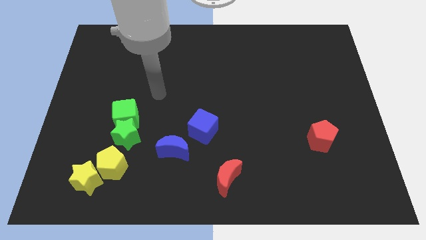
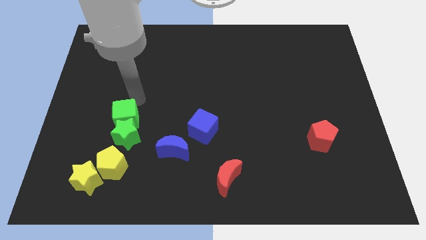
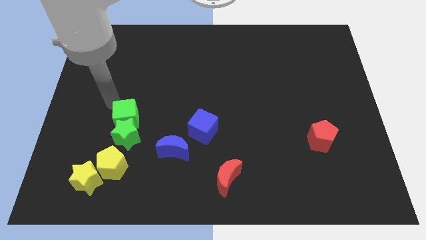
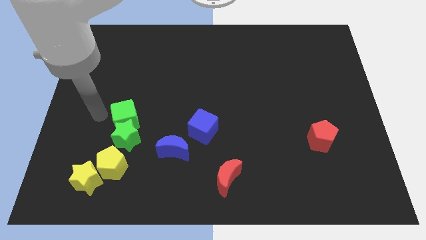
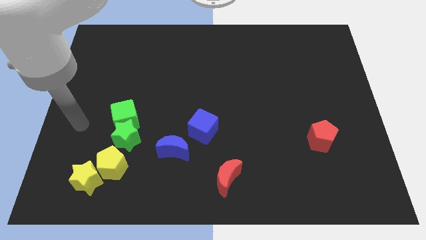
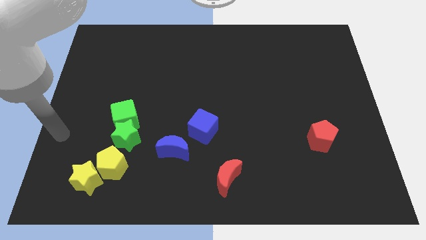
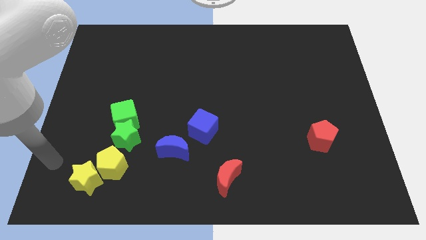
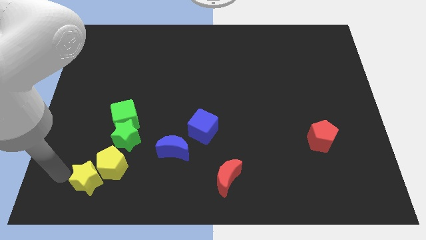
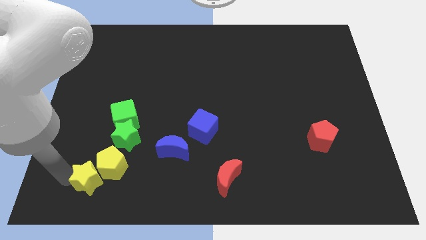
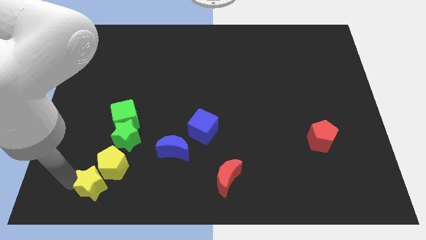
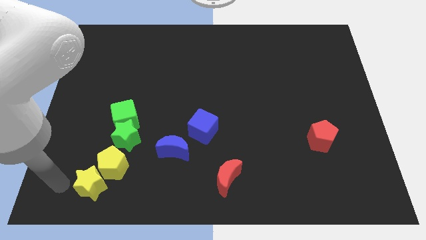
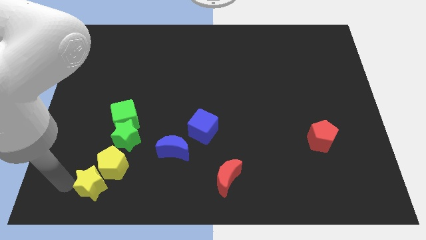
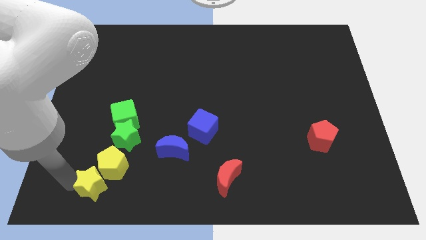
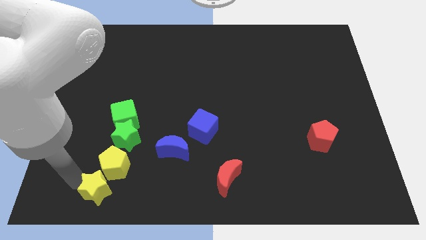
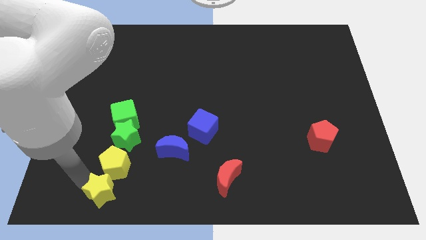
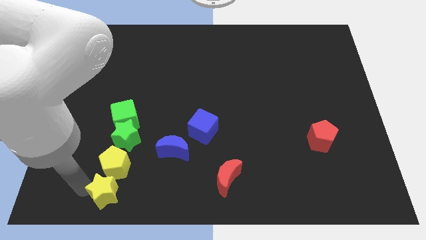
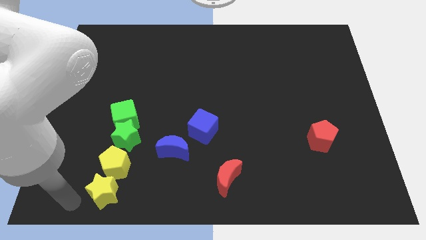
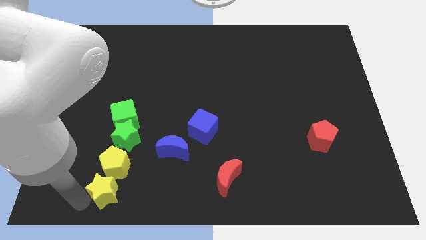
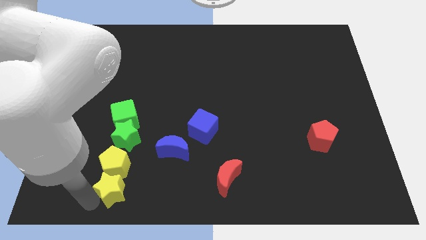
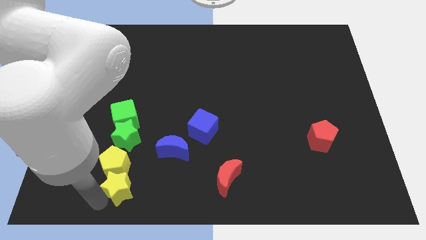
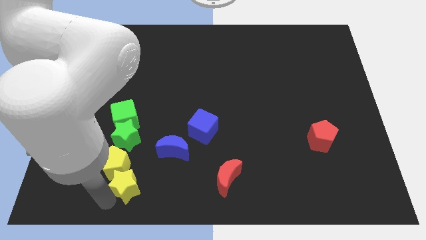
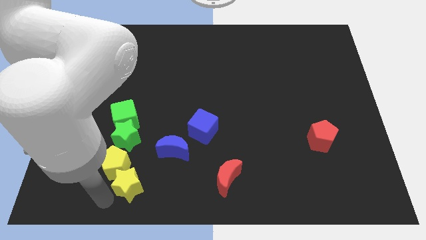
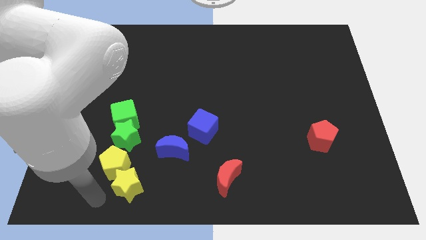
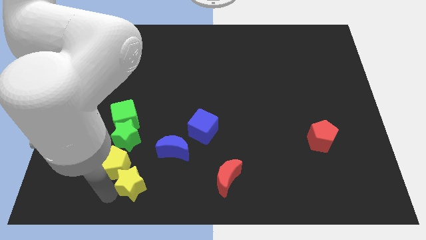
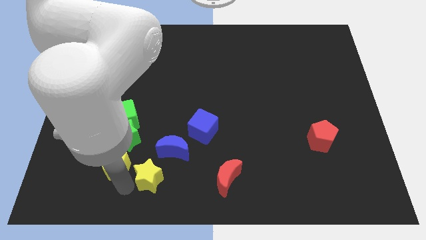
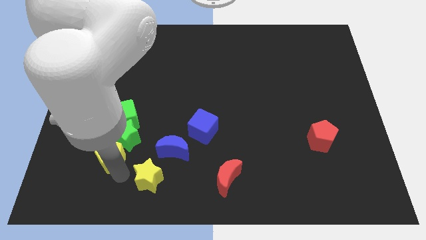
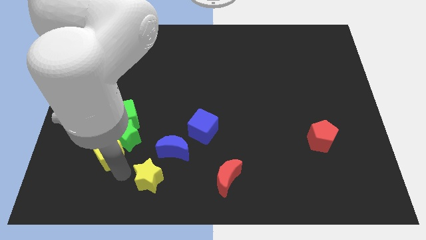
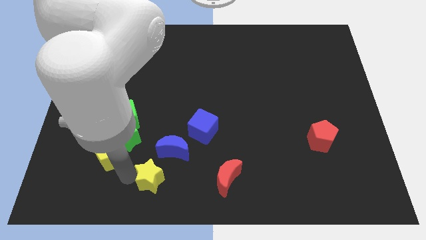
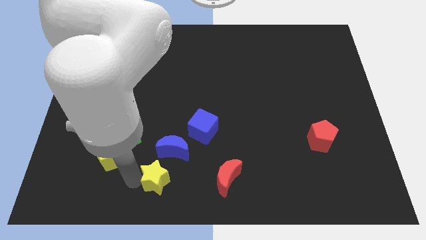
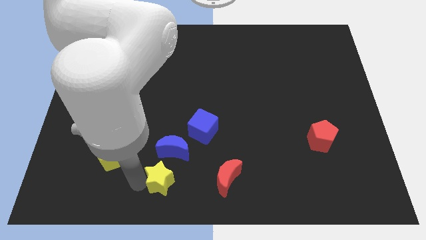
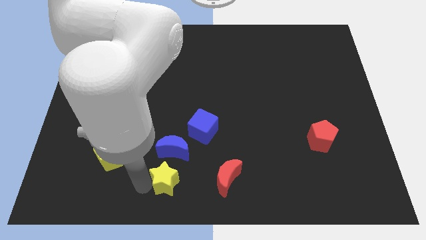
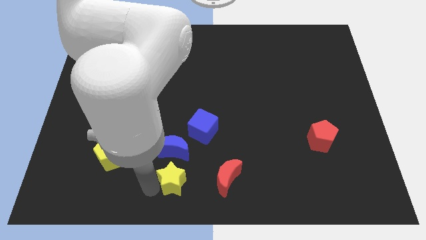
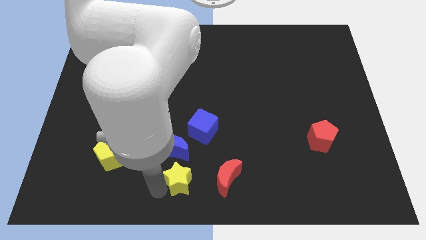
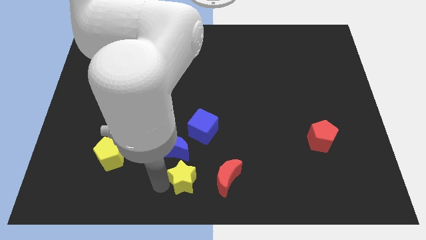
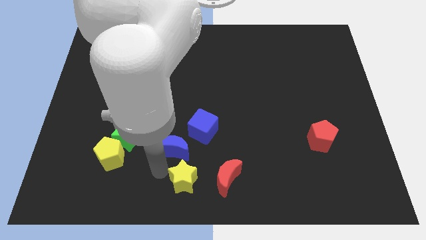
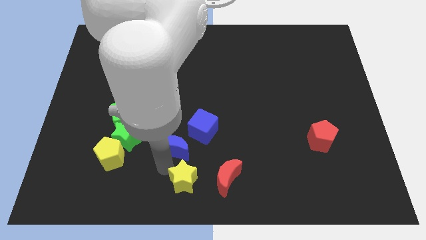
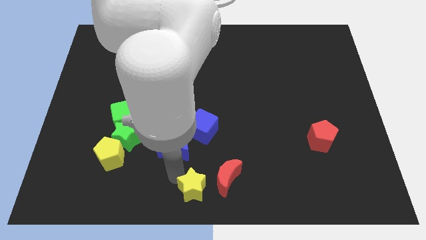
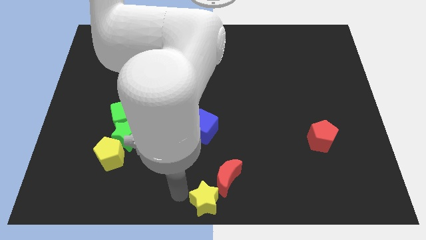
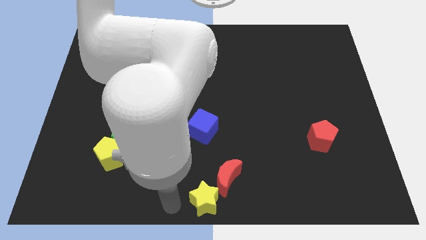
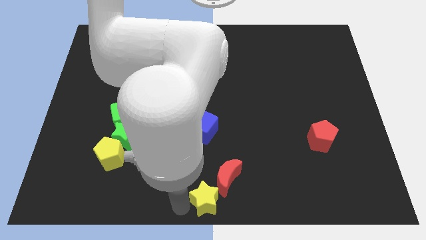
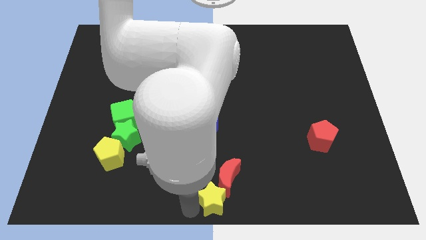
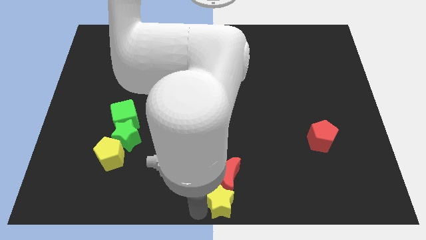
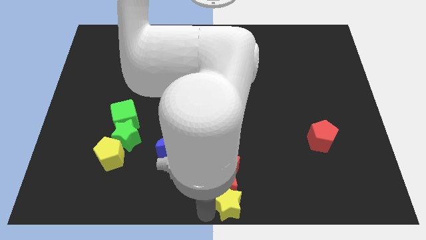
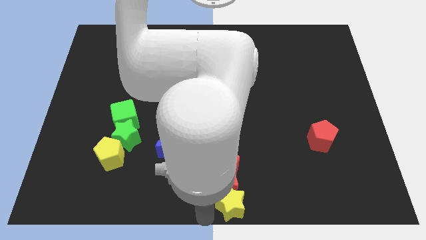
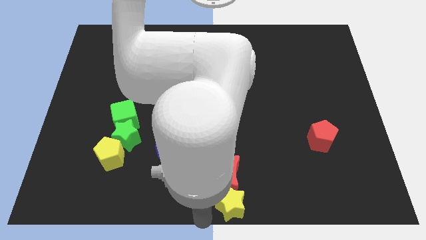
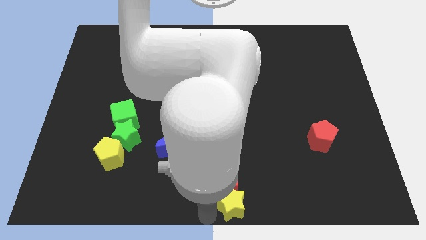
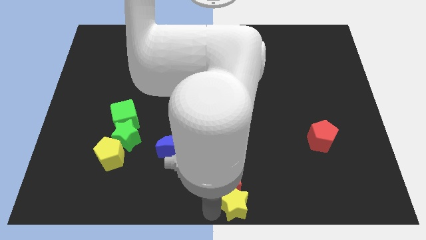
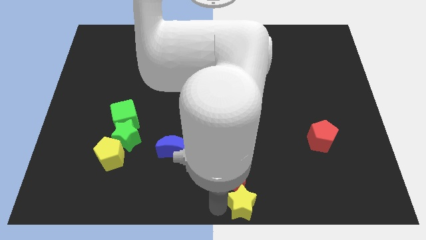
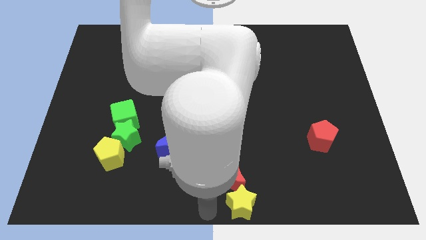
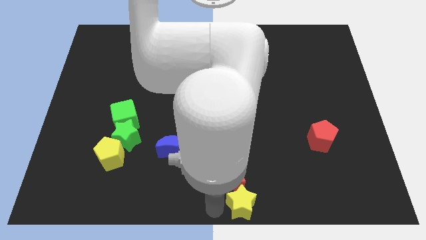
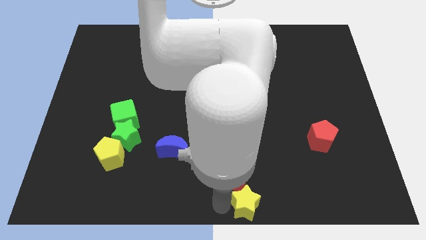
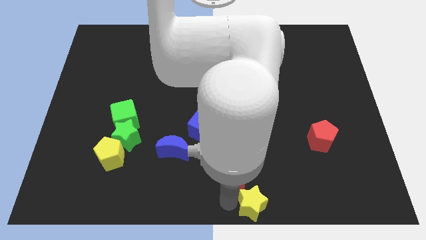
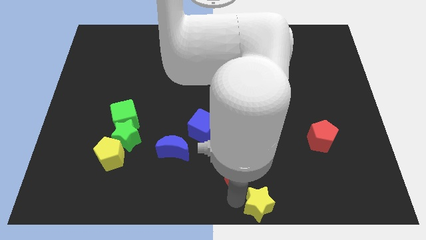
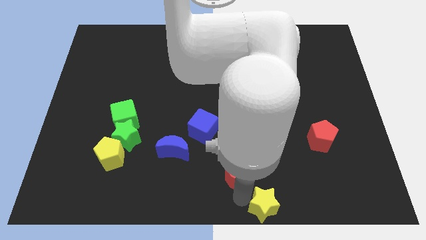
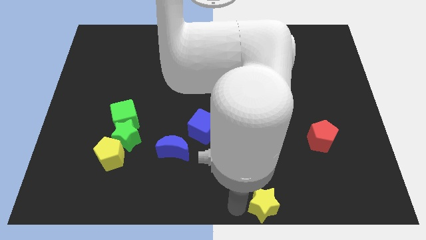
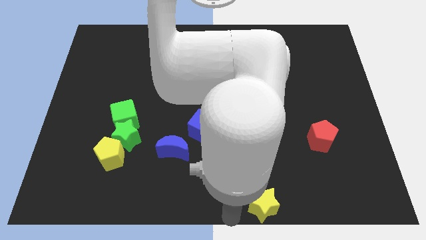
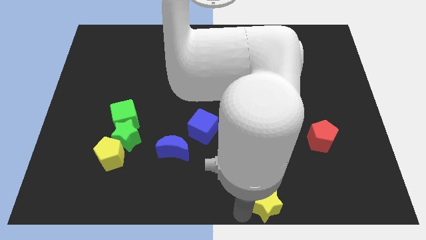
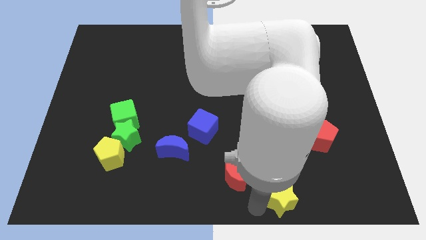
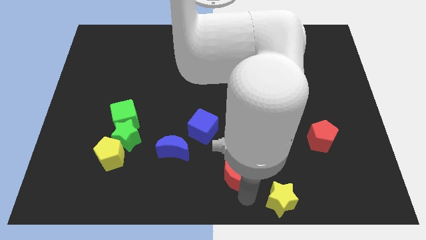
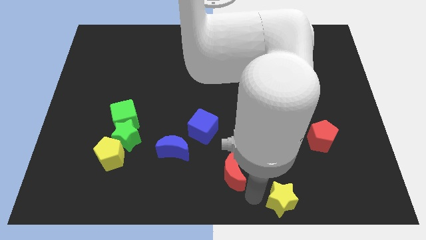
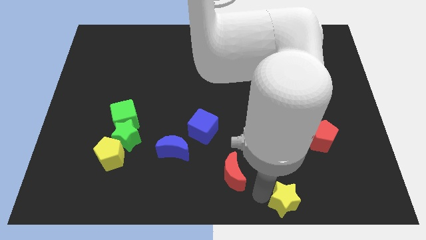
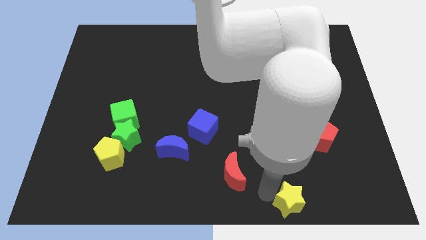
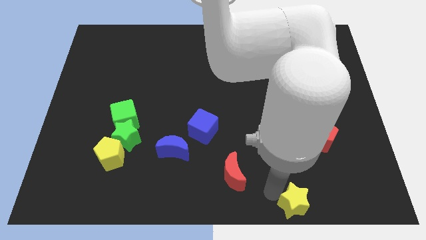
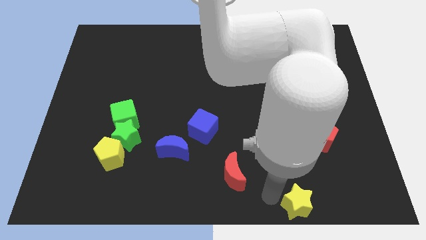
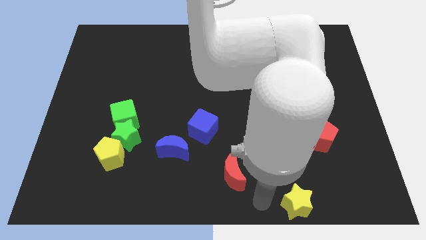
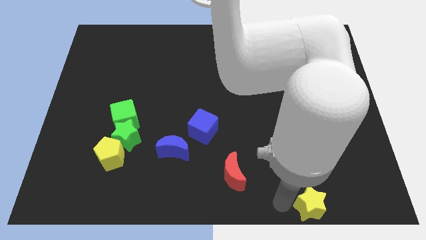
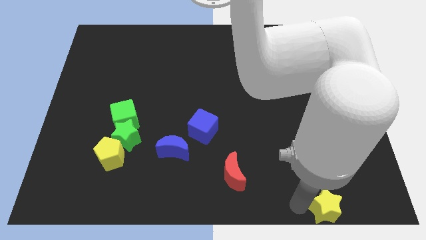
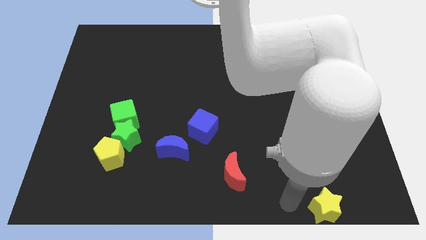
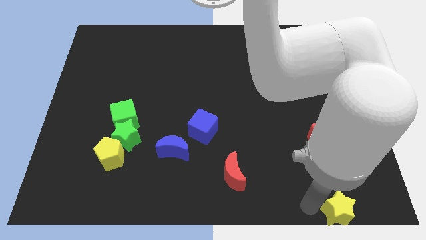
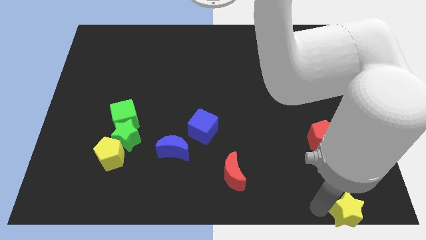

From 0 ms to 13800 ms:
move the yellow star to the lower right corner

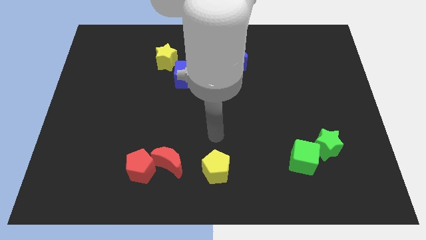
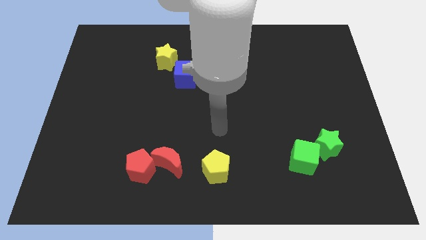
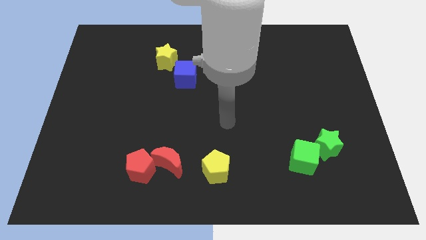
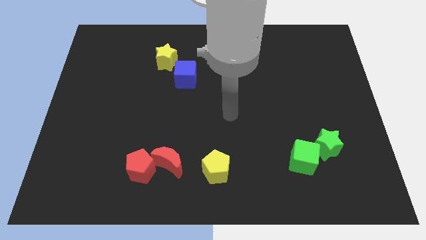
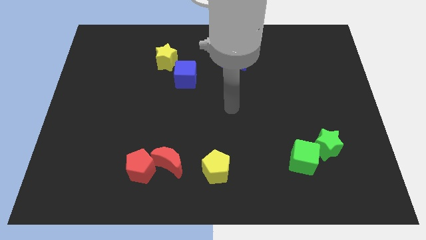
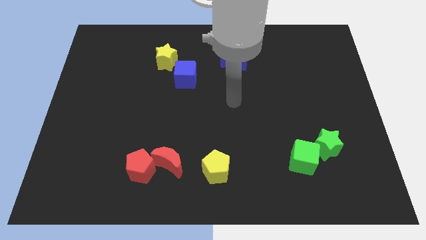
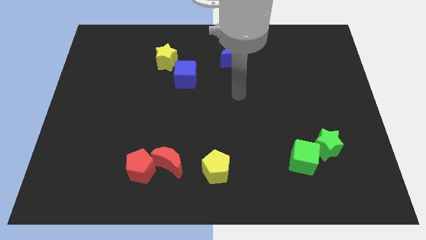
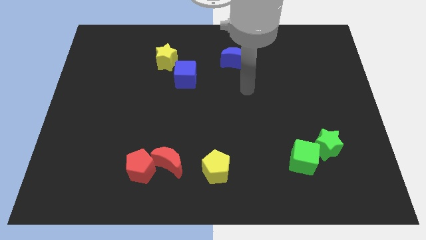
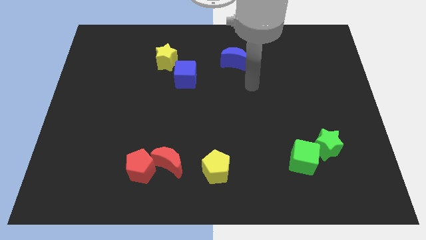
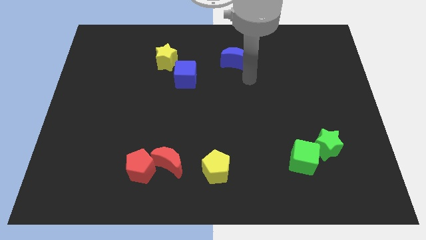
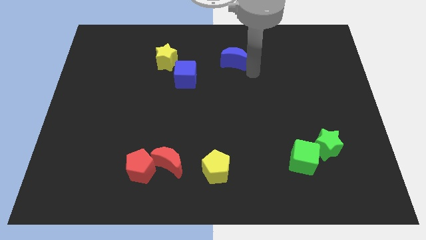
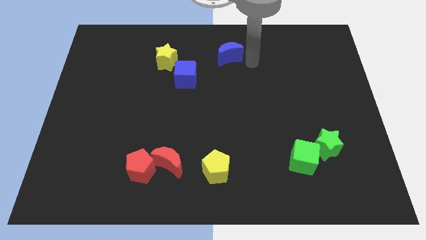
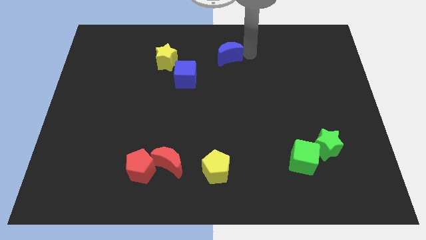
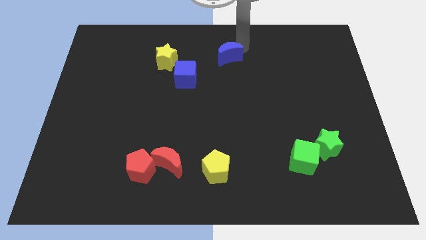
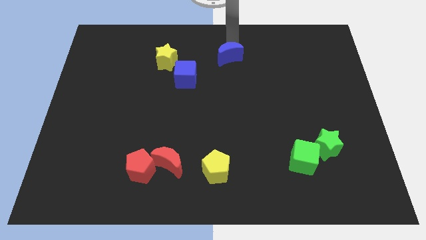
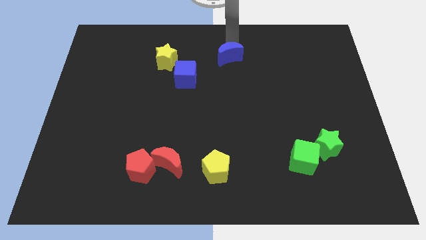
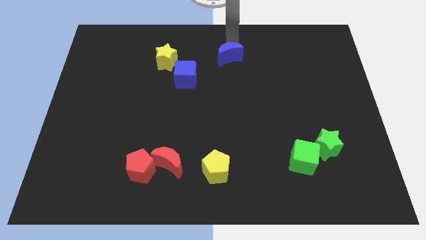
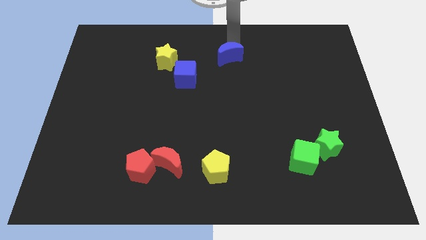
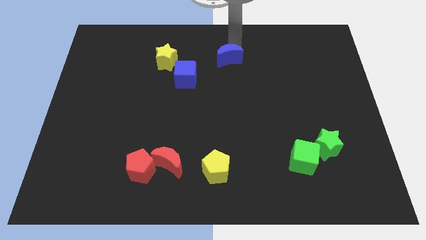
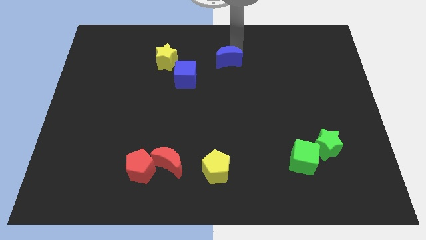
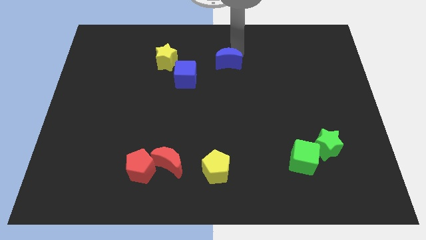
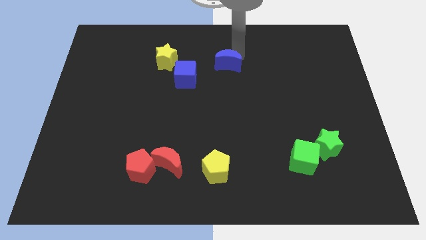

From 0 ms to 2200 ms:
put the blue moon to the center of the board
